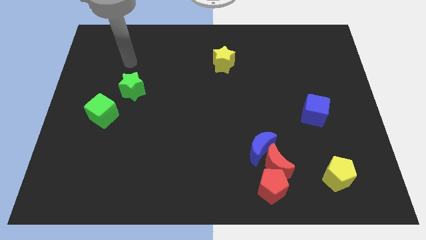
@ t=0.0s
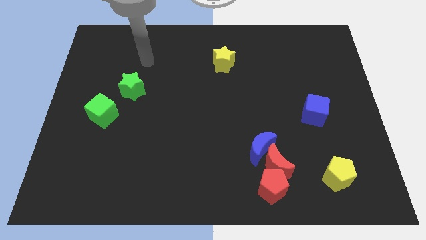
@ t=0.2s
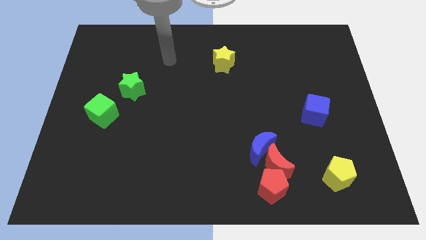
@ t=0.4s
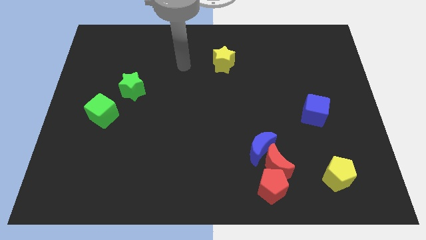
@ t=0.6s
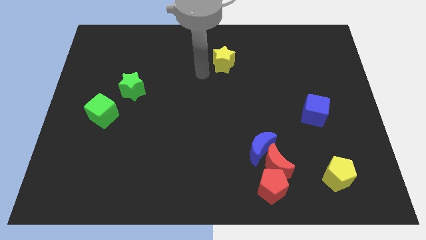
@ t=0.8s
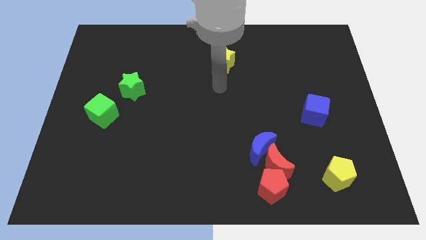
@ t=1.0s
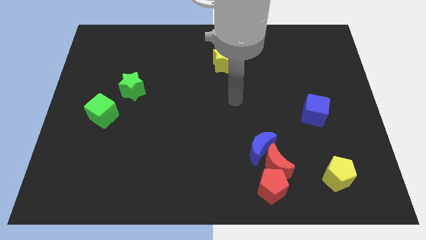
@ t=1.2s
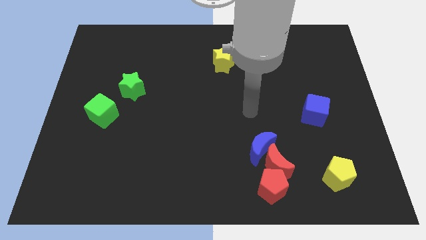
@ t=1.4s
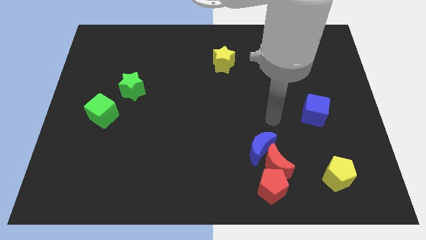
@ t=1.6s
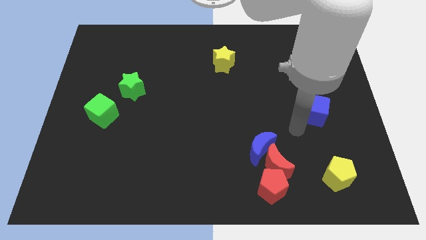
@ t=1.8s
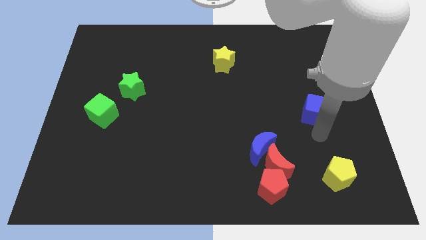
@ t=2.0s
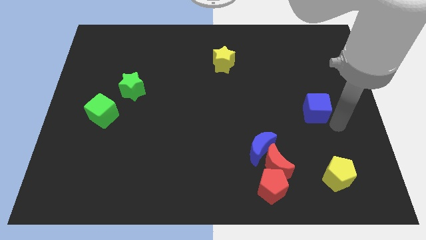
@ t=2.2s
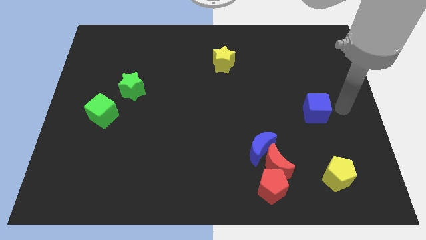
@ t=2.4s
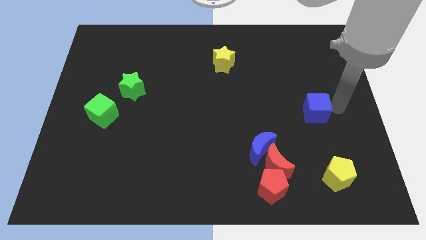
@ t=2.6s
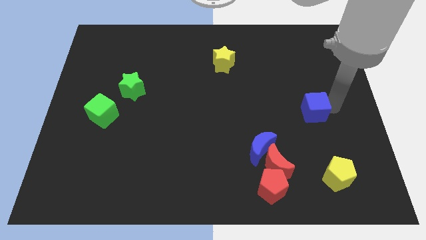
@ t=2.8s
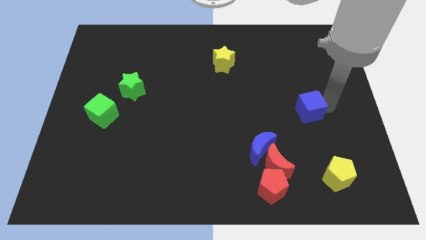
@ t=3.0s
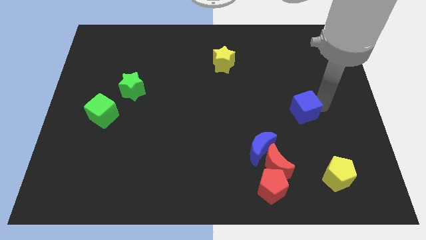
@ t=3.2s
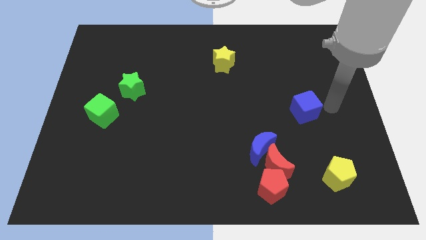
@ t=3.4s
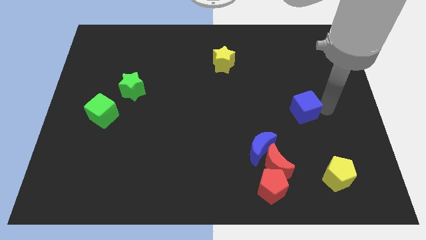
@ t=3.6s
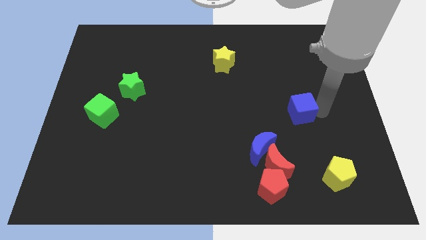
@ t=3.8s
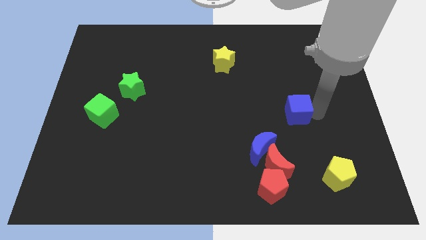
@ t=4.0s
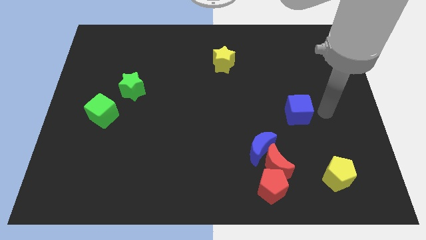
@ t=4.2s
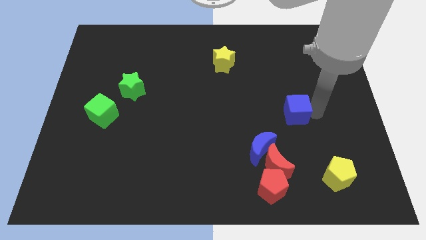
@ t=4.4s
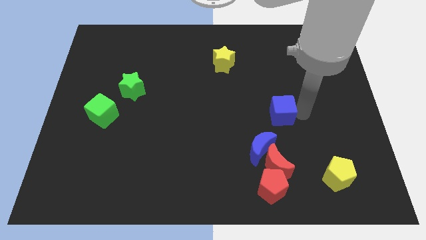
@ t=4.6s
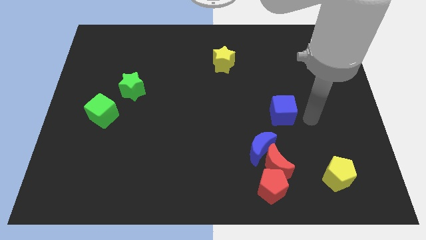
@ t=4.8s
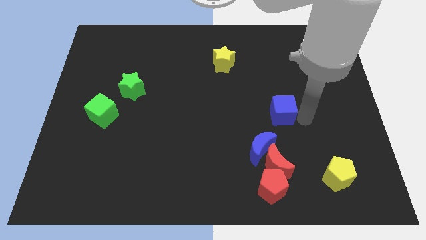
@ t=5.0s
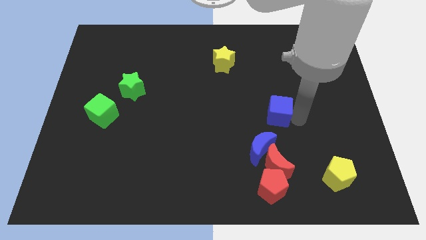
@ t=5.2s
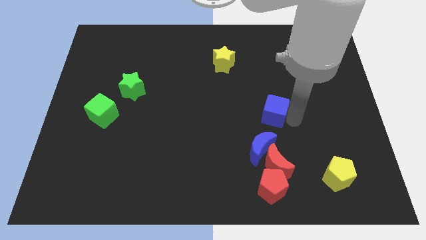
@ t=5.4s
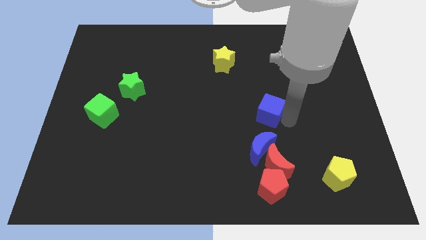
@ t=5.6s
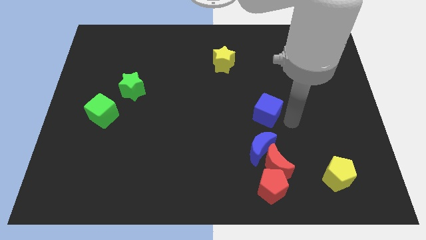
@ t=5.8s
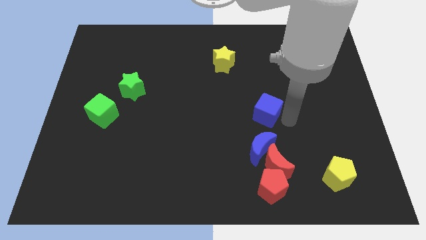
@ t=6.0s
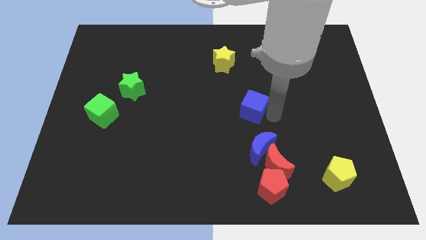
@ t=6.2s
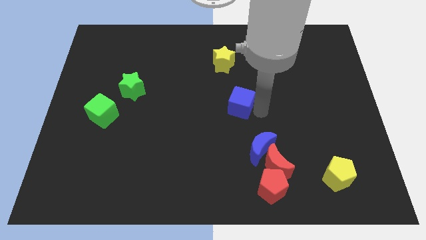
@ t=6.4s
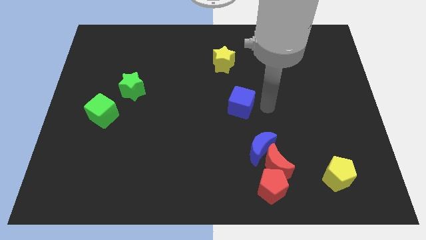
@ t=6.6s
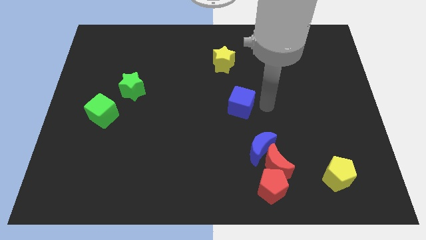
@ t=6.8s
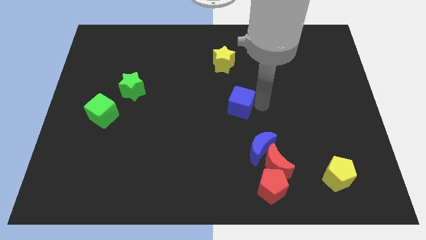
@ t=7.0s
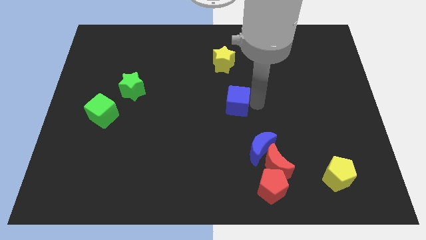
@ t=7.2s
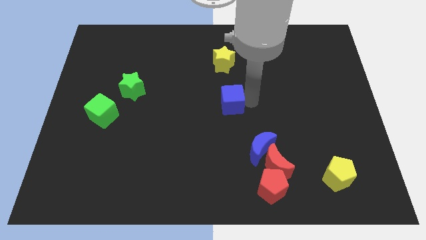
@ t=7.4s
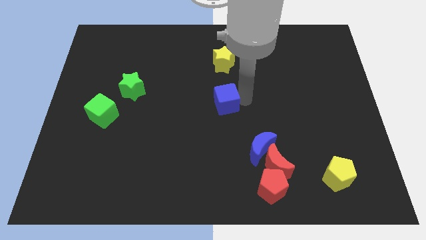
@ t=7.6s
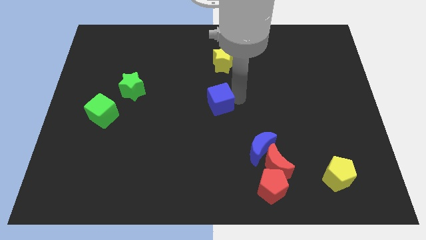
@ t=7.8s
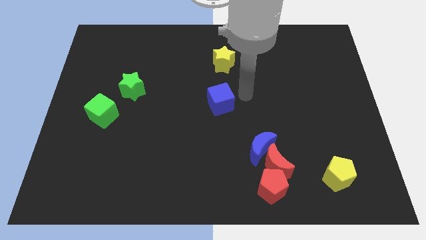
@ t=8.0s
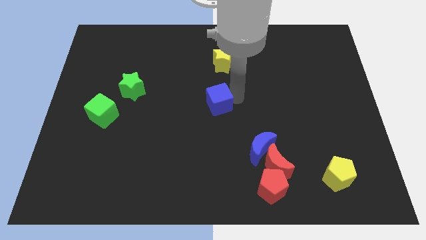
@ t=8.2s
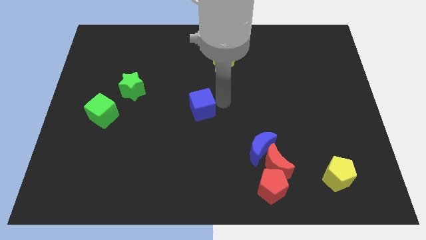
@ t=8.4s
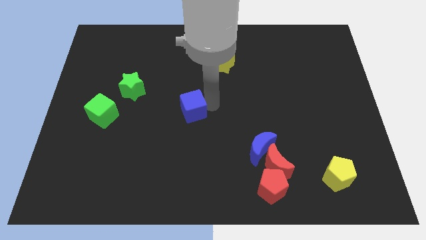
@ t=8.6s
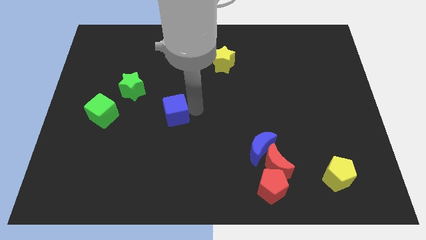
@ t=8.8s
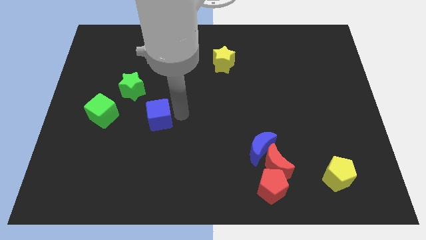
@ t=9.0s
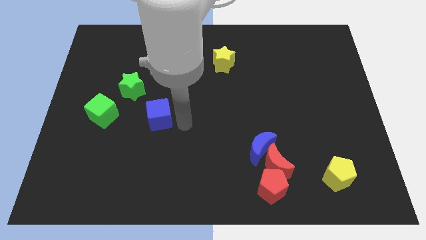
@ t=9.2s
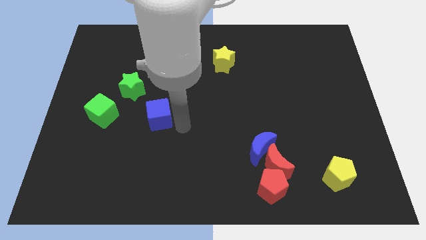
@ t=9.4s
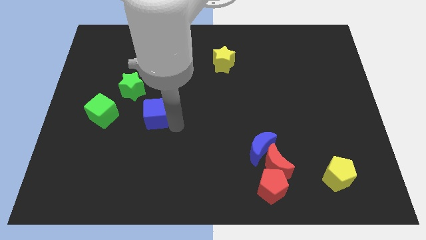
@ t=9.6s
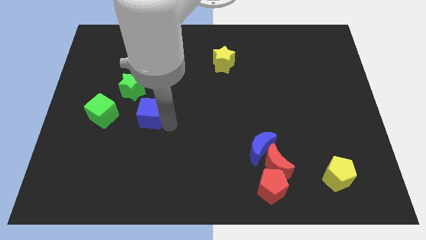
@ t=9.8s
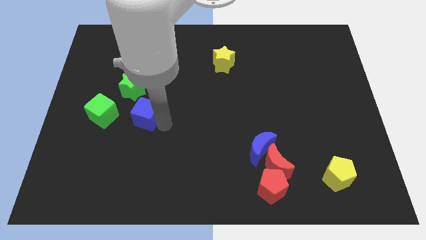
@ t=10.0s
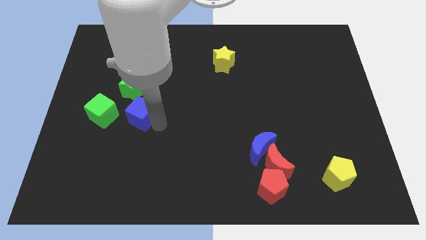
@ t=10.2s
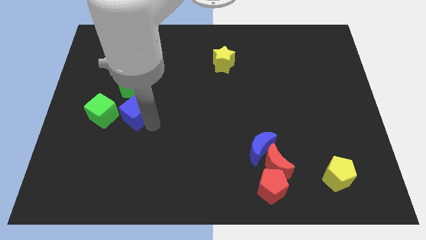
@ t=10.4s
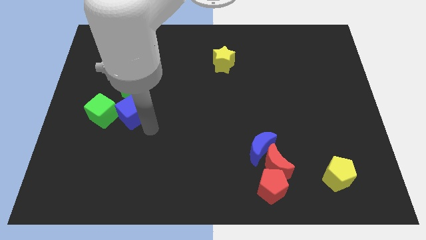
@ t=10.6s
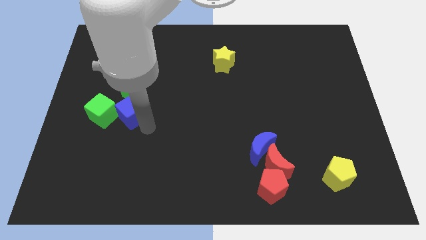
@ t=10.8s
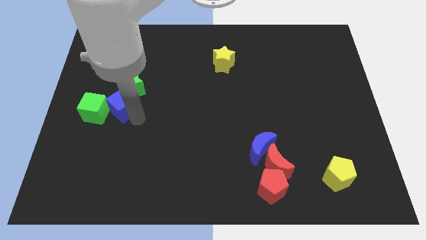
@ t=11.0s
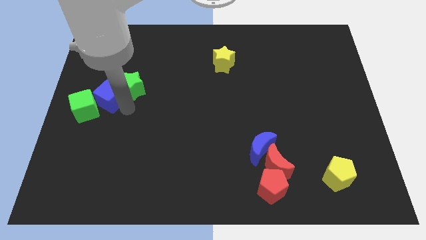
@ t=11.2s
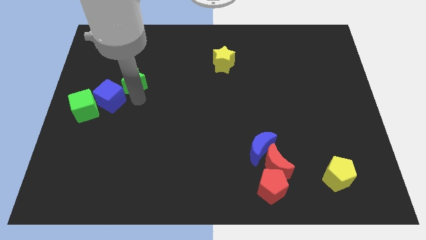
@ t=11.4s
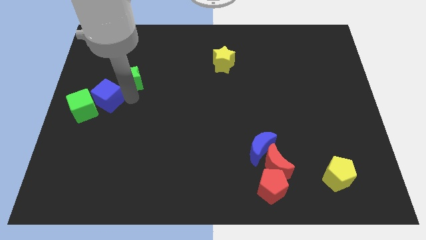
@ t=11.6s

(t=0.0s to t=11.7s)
slide the blue cube to the center left
